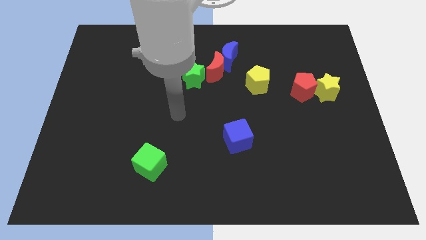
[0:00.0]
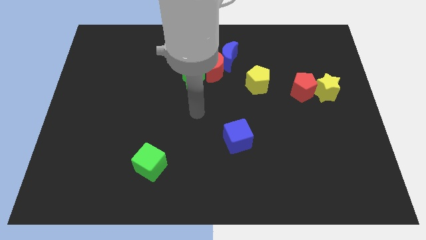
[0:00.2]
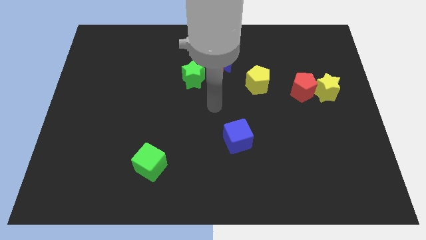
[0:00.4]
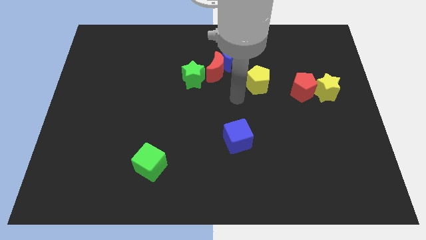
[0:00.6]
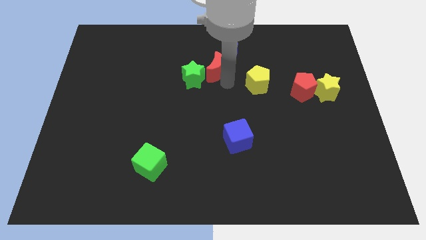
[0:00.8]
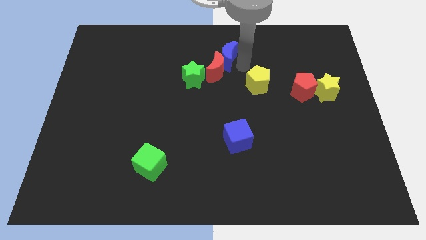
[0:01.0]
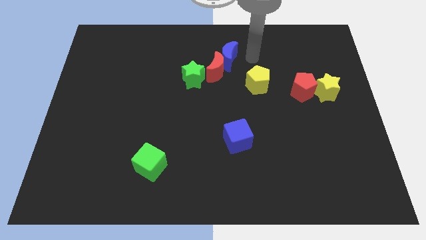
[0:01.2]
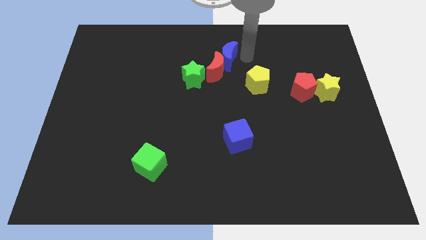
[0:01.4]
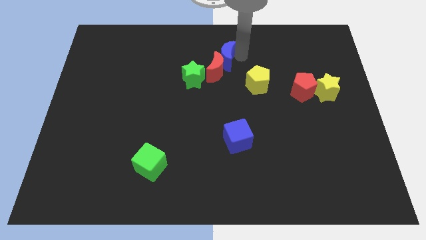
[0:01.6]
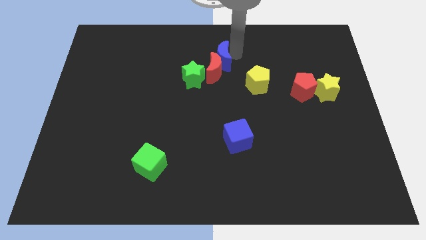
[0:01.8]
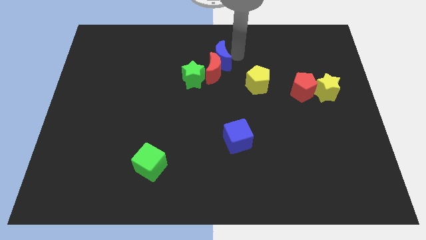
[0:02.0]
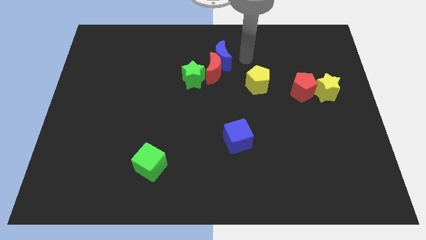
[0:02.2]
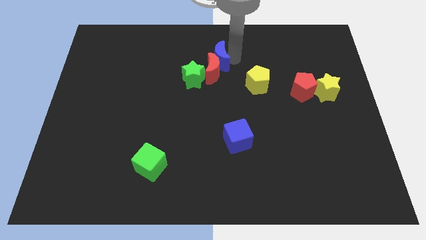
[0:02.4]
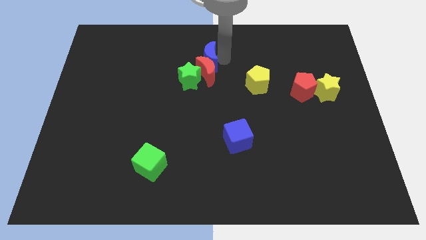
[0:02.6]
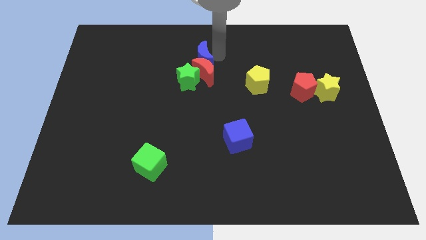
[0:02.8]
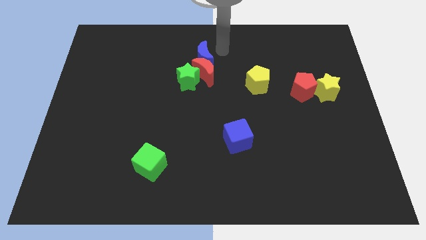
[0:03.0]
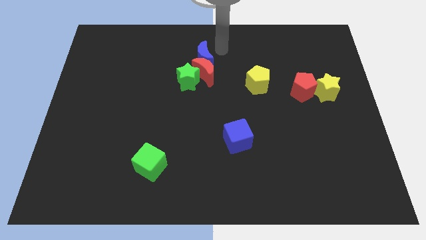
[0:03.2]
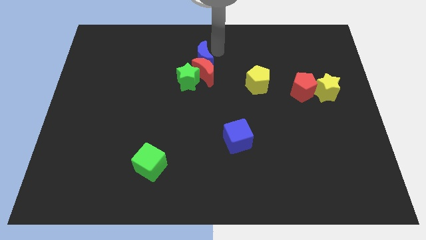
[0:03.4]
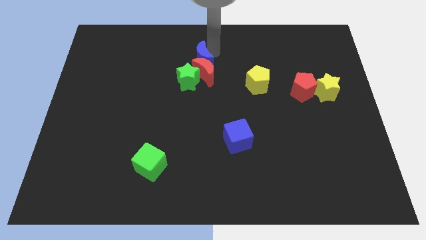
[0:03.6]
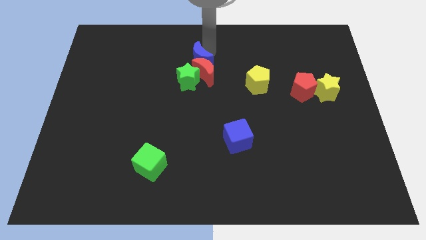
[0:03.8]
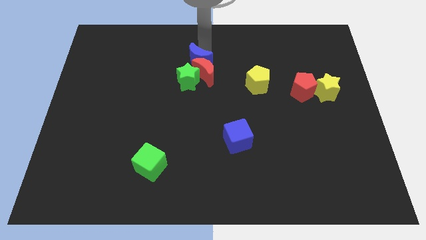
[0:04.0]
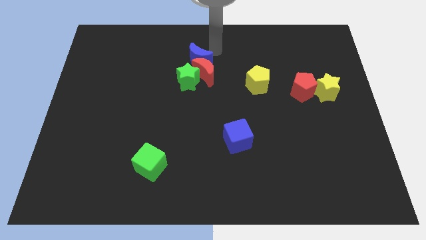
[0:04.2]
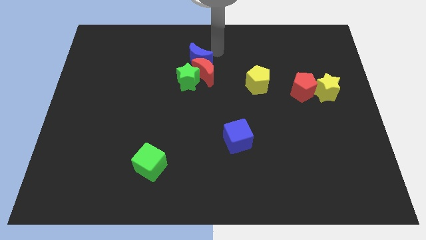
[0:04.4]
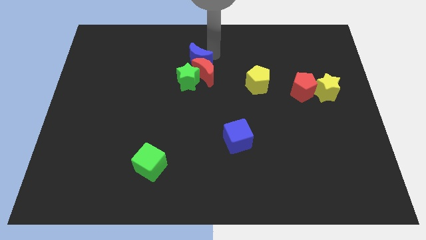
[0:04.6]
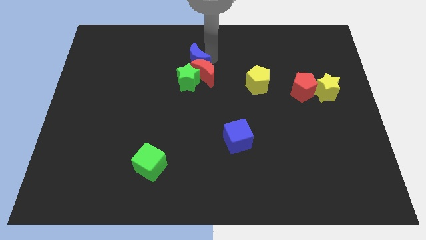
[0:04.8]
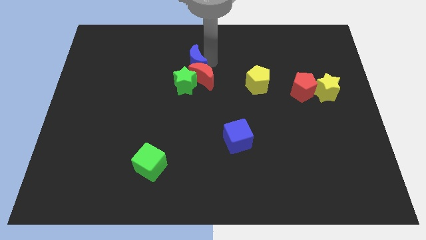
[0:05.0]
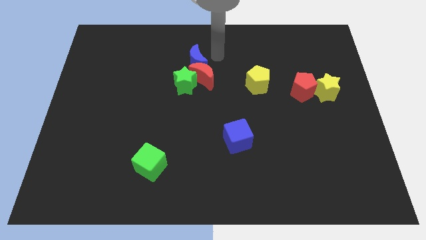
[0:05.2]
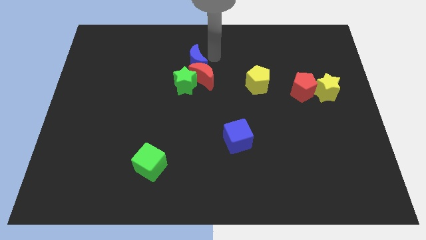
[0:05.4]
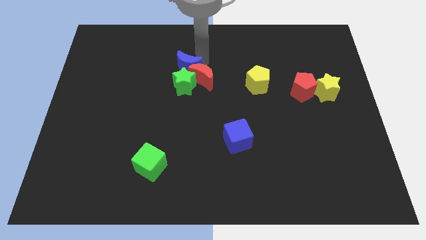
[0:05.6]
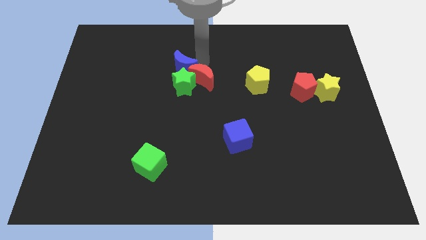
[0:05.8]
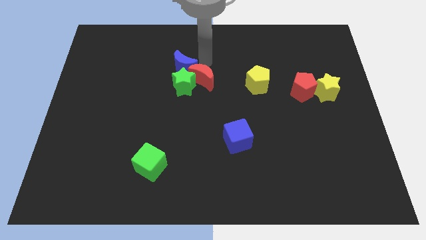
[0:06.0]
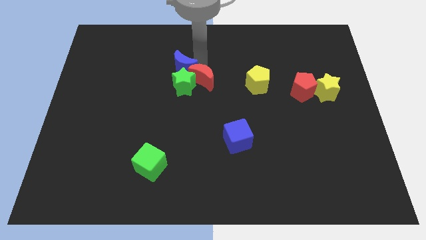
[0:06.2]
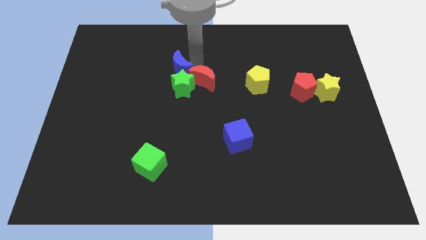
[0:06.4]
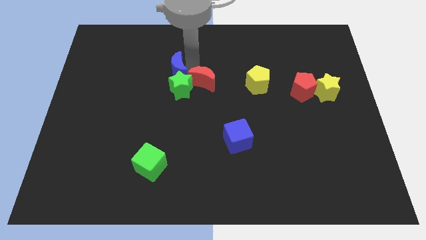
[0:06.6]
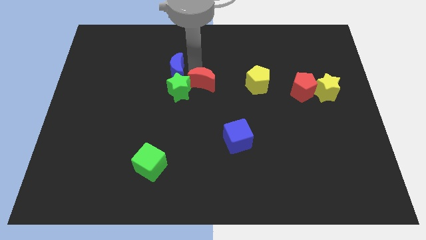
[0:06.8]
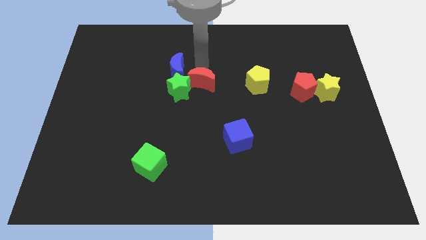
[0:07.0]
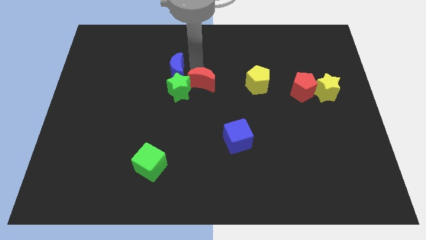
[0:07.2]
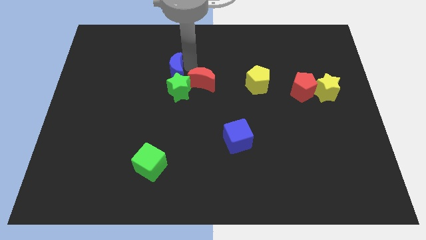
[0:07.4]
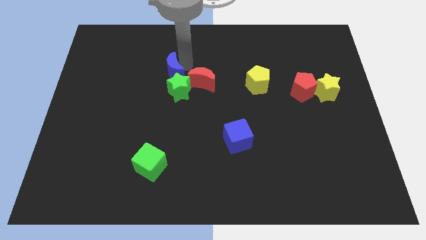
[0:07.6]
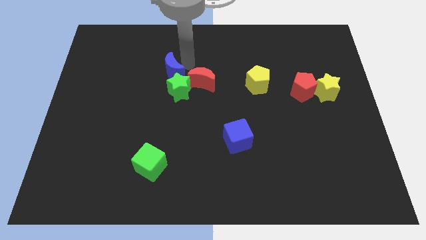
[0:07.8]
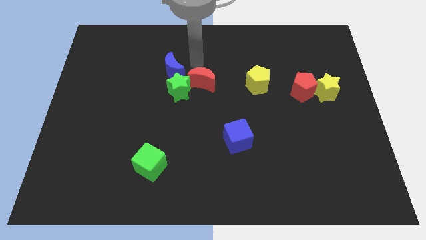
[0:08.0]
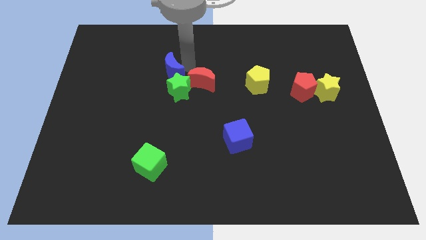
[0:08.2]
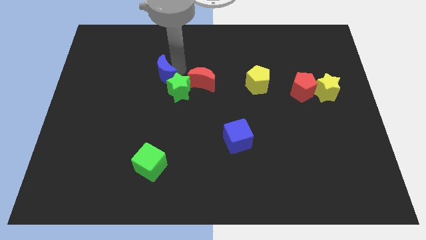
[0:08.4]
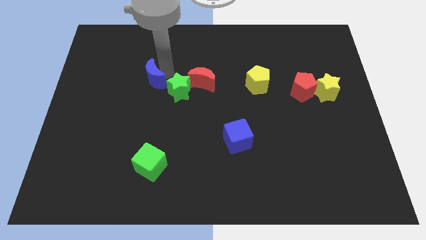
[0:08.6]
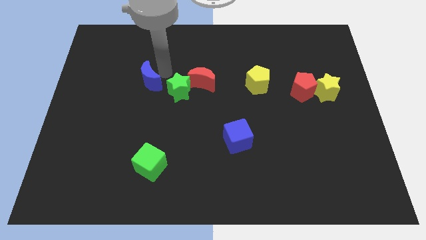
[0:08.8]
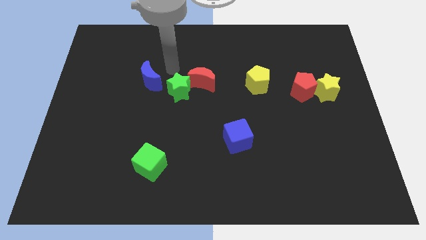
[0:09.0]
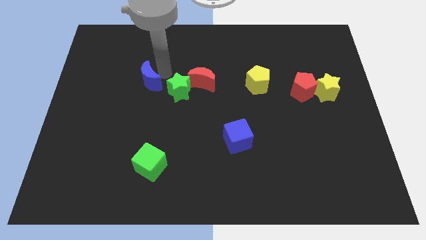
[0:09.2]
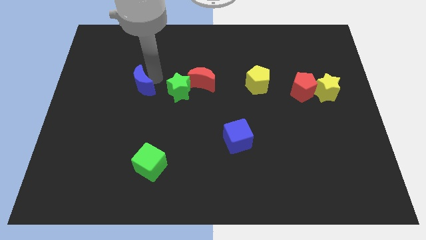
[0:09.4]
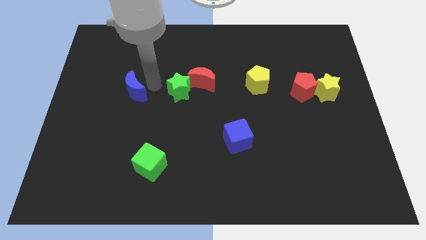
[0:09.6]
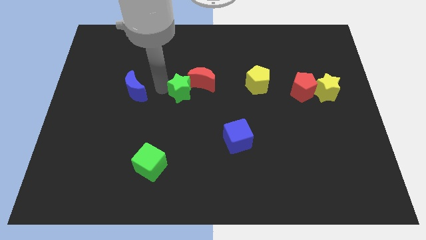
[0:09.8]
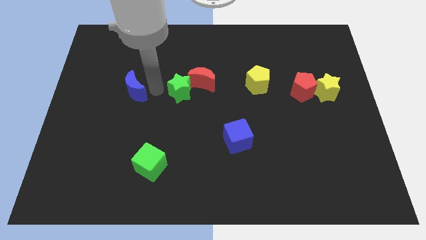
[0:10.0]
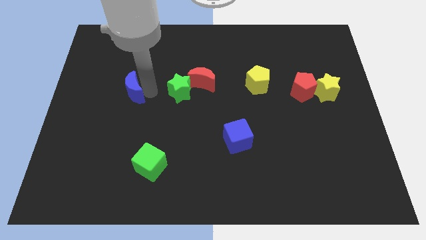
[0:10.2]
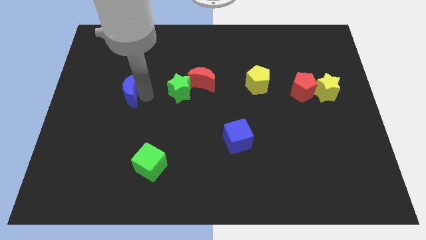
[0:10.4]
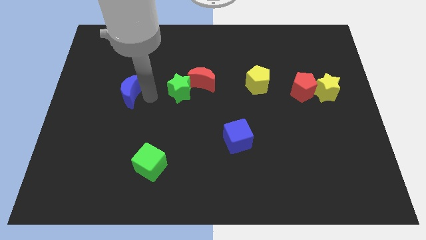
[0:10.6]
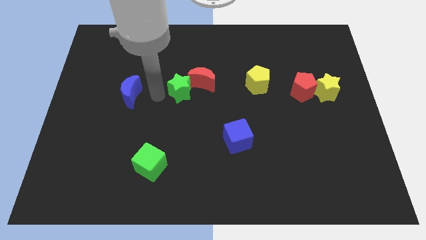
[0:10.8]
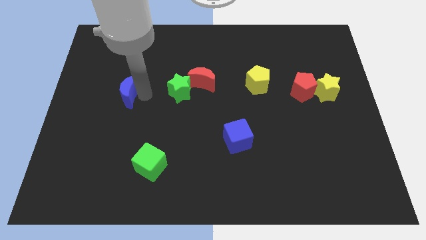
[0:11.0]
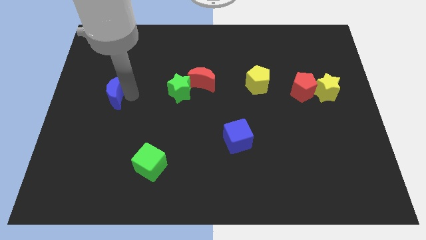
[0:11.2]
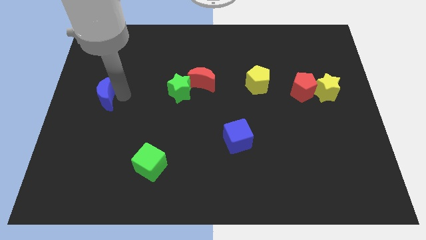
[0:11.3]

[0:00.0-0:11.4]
put the blue moon to the left side
